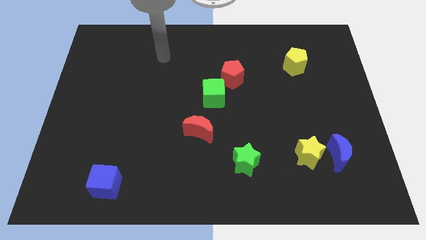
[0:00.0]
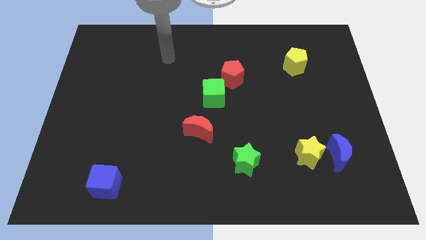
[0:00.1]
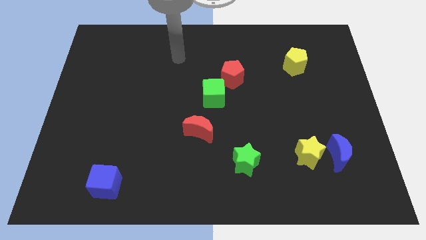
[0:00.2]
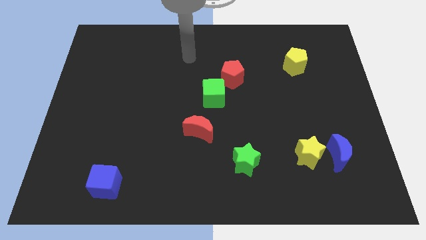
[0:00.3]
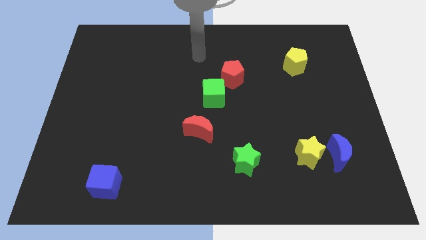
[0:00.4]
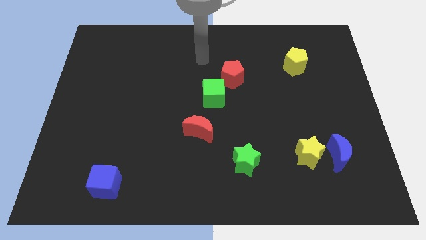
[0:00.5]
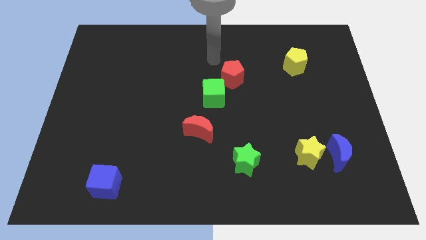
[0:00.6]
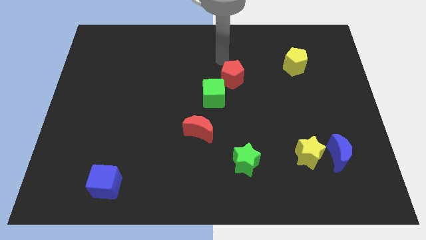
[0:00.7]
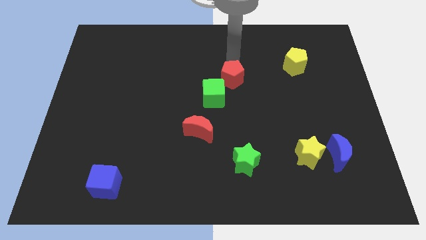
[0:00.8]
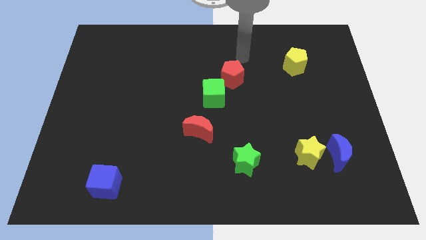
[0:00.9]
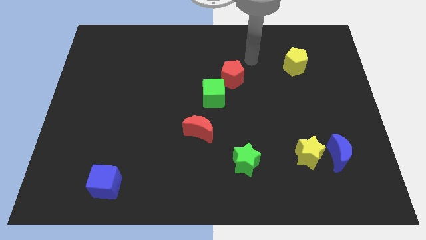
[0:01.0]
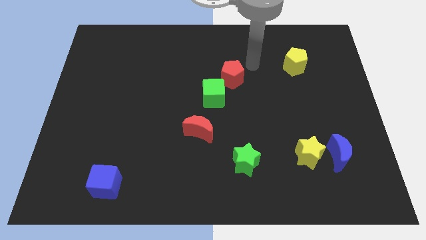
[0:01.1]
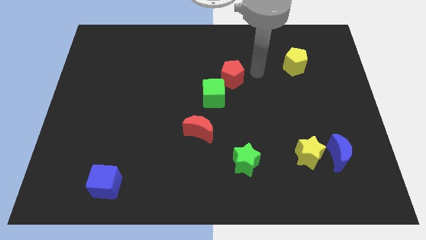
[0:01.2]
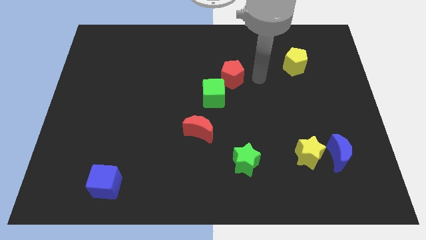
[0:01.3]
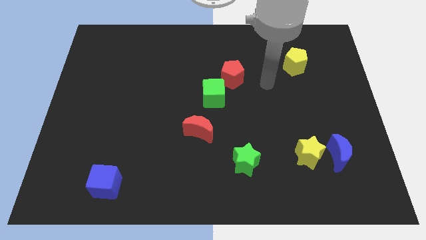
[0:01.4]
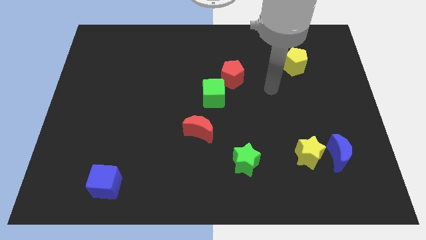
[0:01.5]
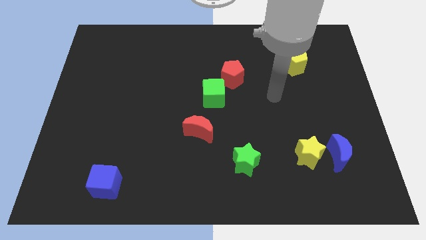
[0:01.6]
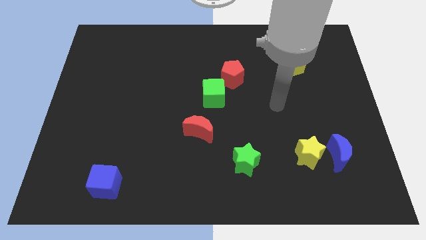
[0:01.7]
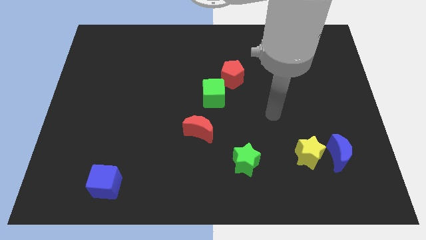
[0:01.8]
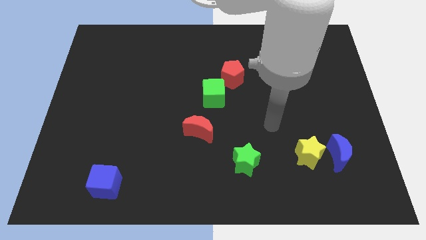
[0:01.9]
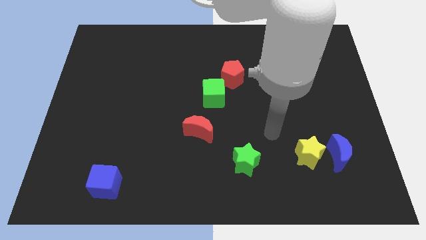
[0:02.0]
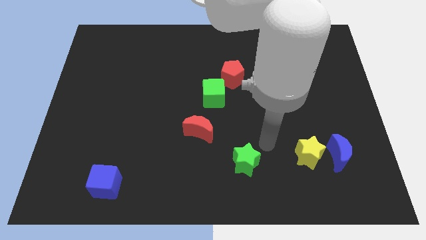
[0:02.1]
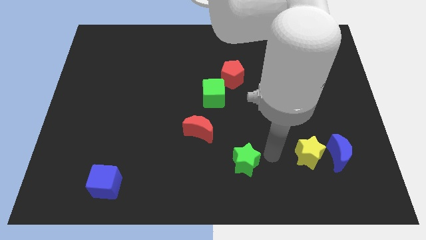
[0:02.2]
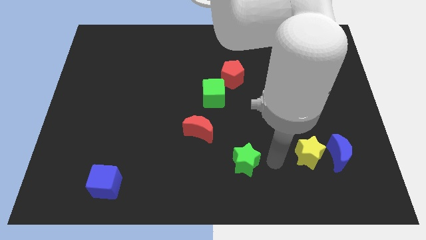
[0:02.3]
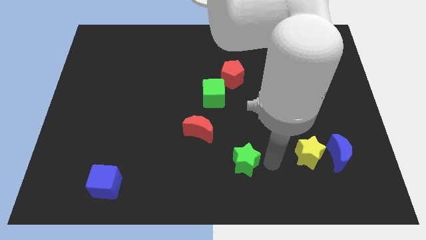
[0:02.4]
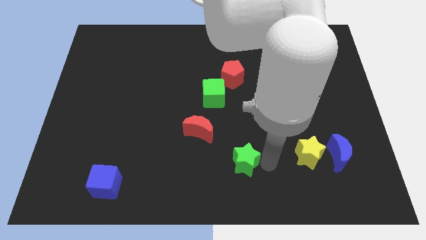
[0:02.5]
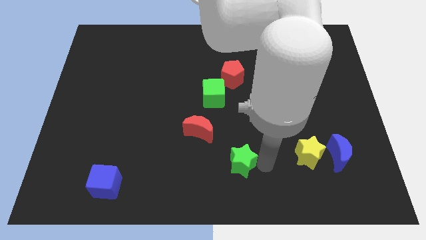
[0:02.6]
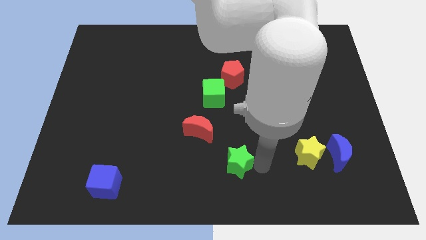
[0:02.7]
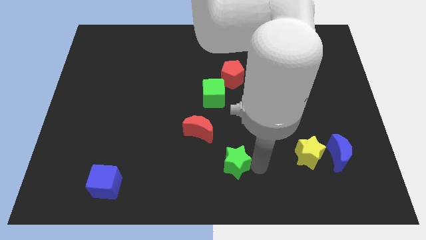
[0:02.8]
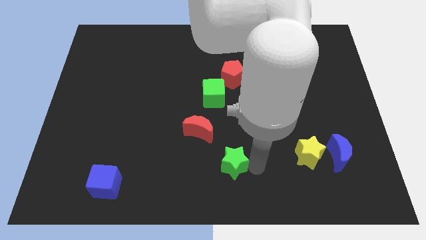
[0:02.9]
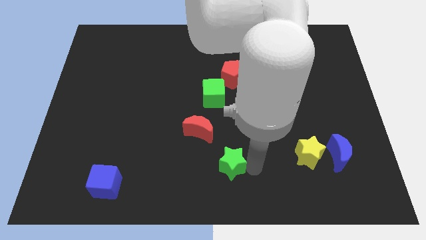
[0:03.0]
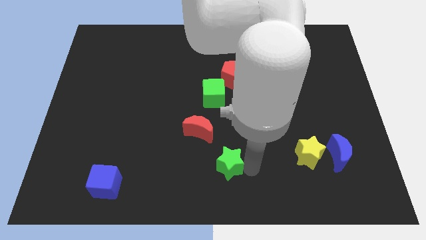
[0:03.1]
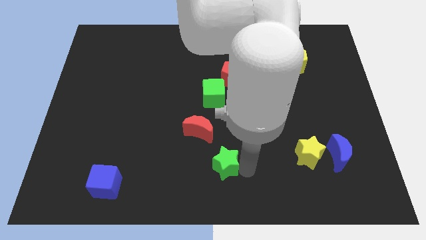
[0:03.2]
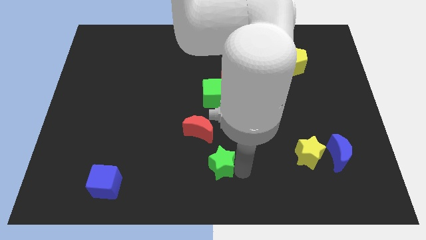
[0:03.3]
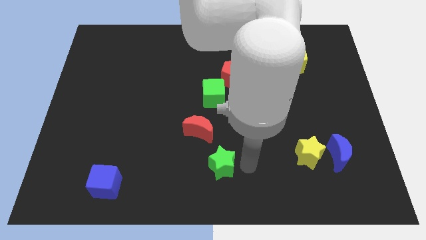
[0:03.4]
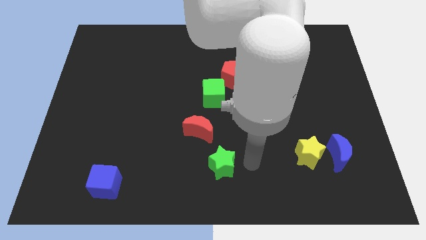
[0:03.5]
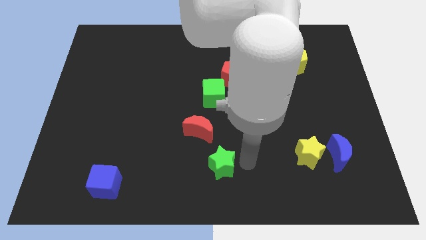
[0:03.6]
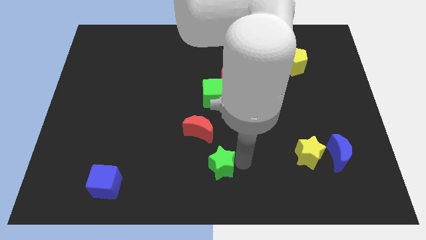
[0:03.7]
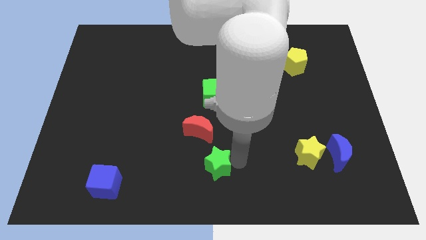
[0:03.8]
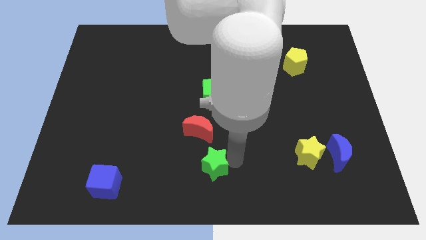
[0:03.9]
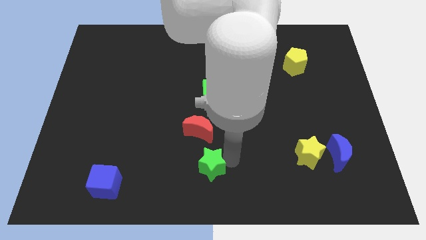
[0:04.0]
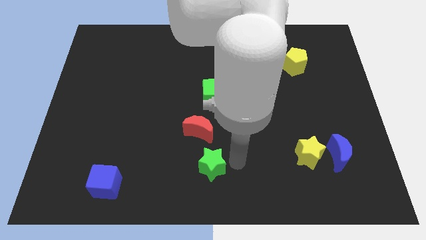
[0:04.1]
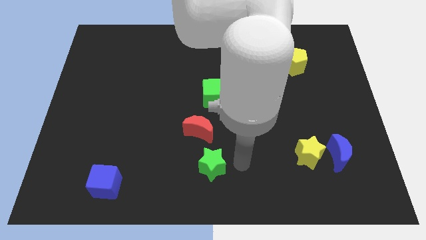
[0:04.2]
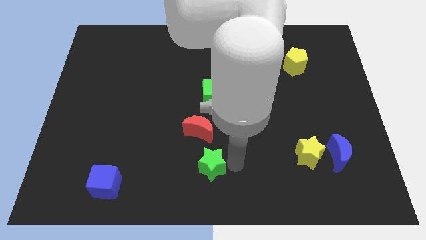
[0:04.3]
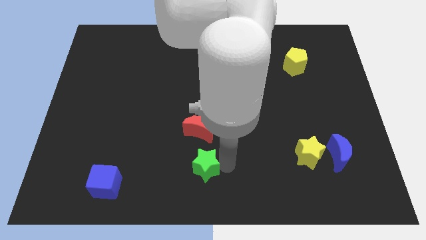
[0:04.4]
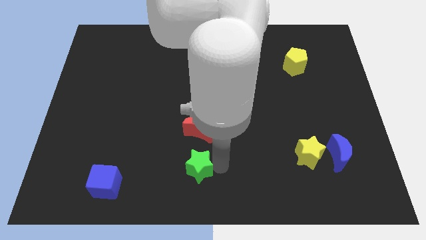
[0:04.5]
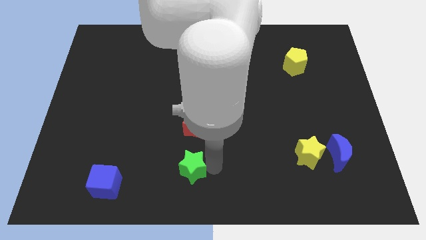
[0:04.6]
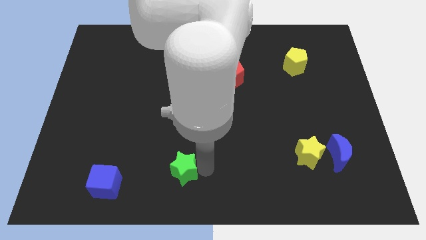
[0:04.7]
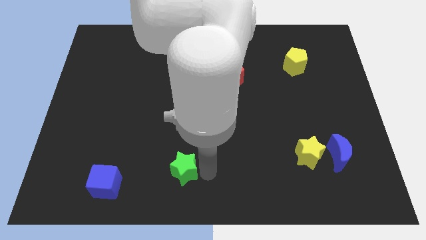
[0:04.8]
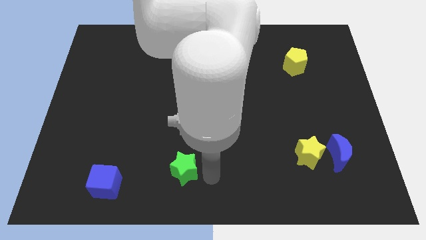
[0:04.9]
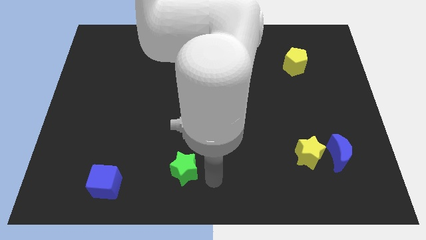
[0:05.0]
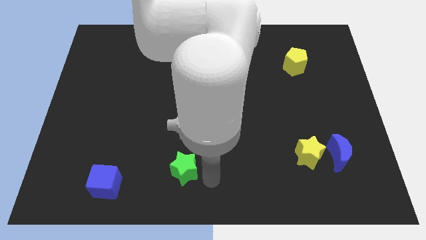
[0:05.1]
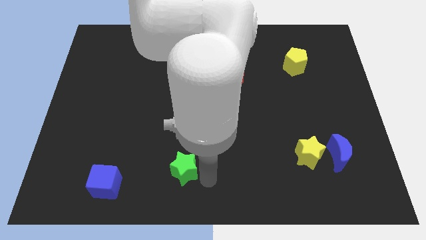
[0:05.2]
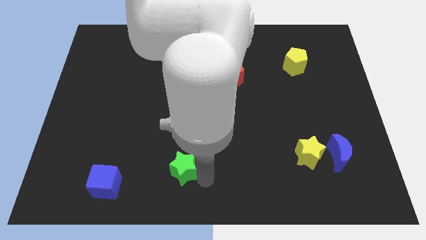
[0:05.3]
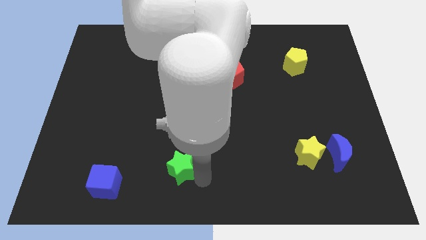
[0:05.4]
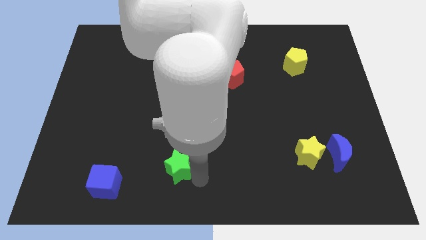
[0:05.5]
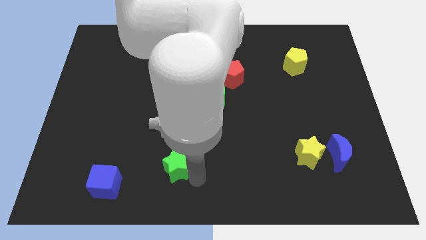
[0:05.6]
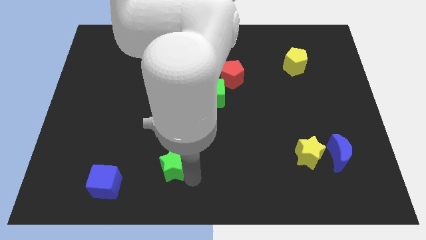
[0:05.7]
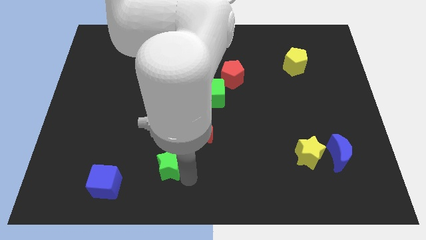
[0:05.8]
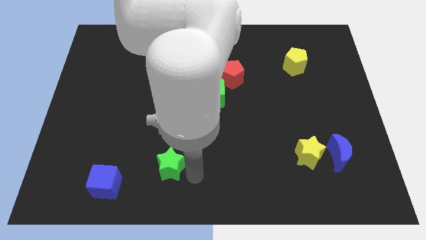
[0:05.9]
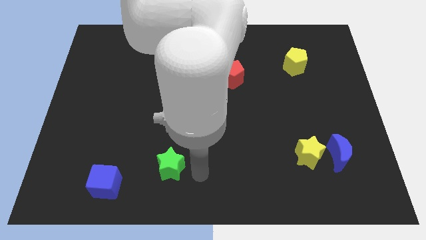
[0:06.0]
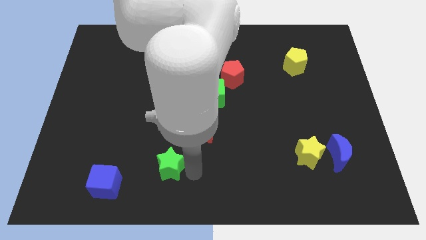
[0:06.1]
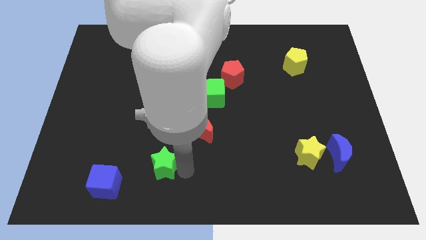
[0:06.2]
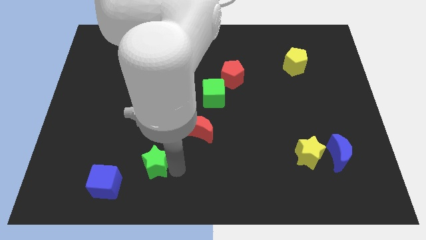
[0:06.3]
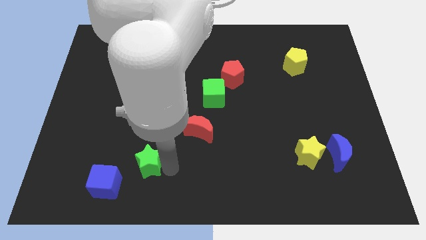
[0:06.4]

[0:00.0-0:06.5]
push the green star left

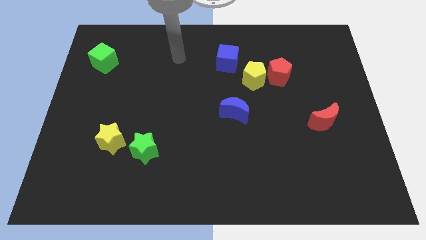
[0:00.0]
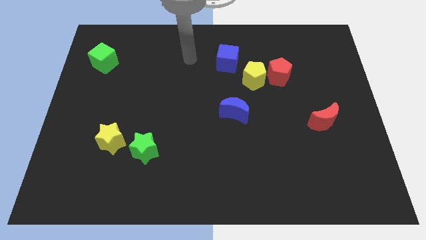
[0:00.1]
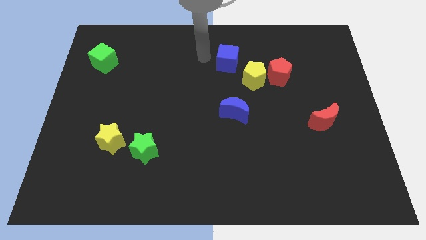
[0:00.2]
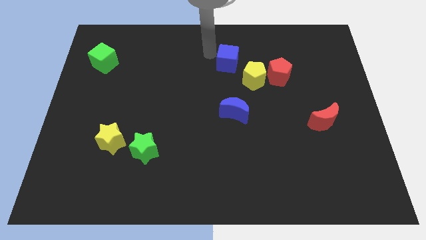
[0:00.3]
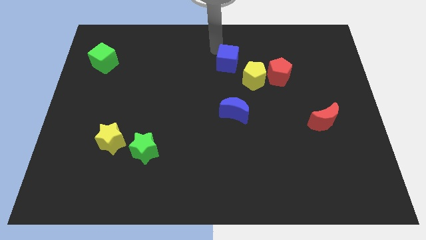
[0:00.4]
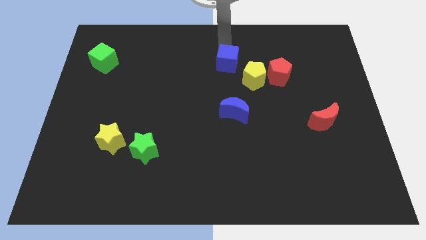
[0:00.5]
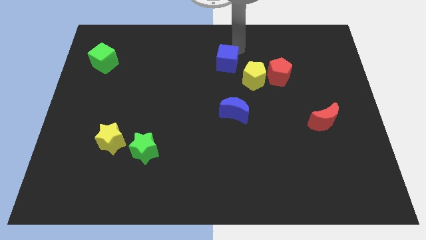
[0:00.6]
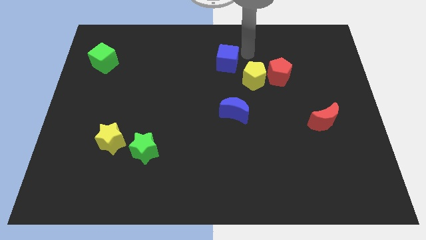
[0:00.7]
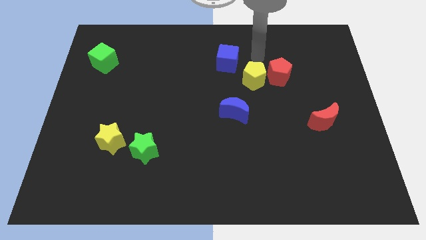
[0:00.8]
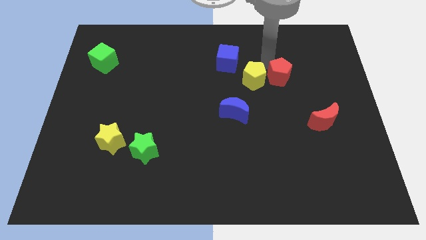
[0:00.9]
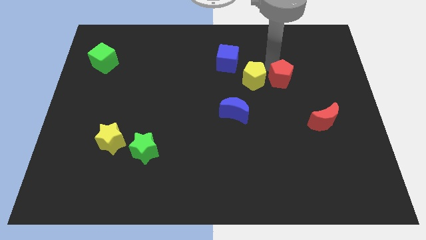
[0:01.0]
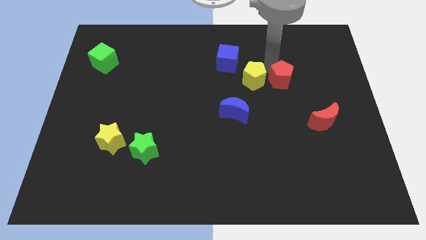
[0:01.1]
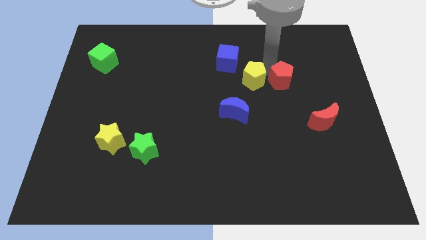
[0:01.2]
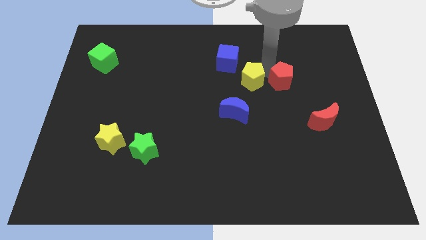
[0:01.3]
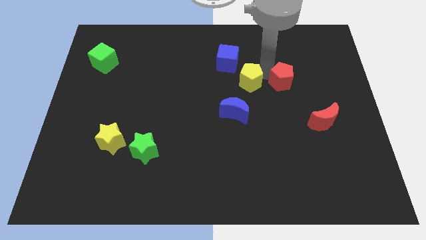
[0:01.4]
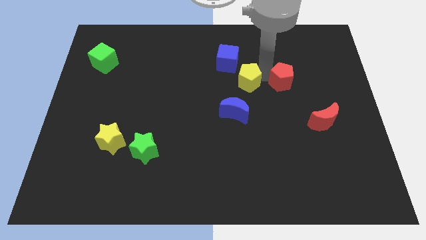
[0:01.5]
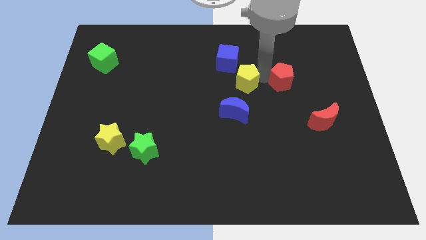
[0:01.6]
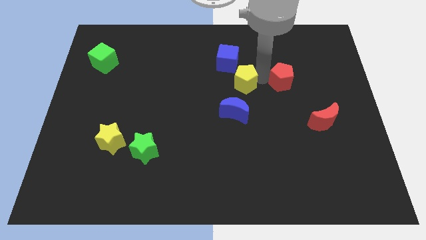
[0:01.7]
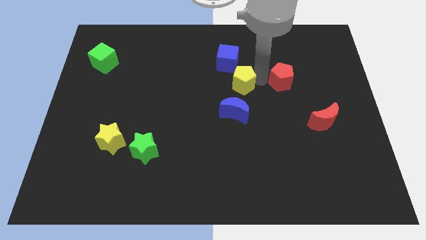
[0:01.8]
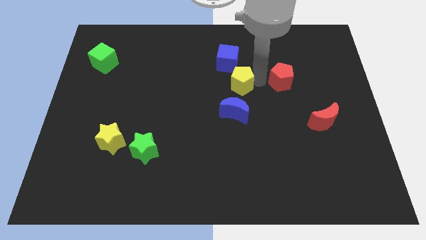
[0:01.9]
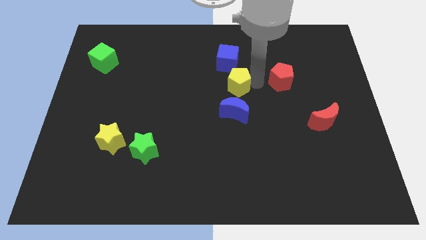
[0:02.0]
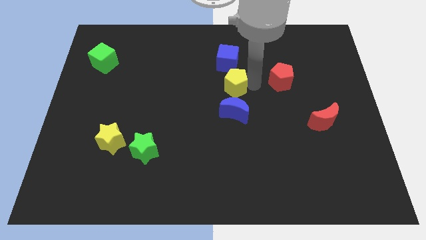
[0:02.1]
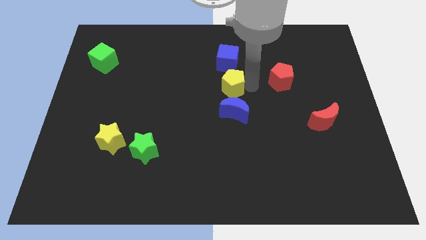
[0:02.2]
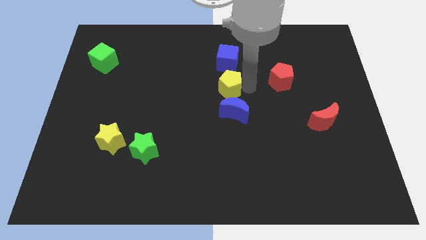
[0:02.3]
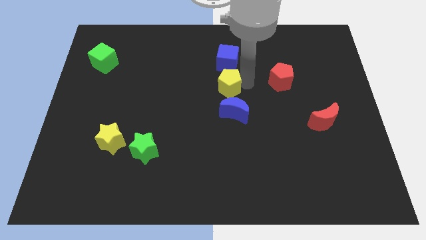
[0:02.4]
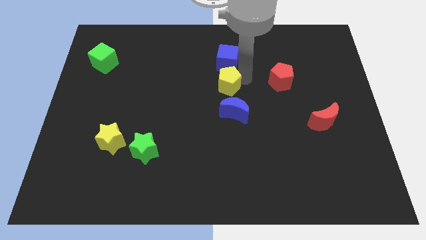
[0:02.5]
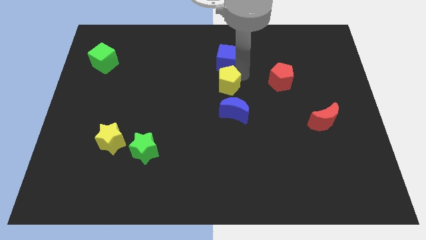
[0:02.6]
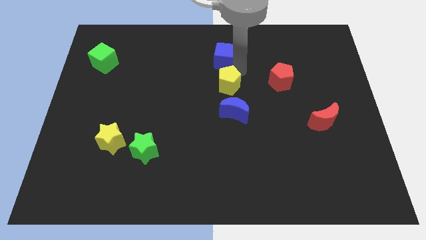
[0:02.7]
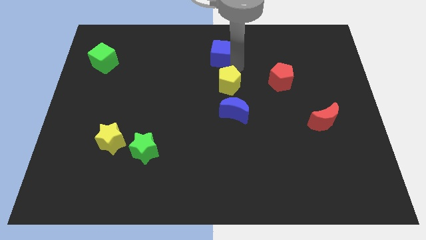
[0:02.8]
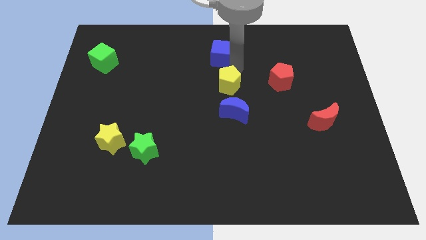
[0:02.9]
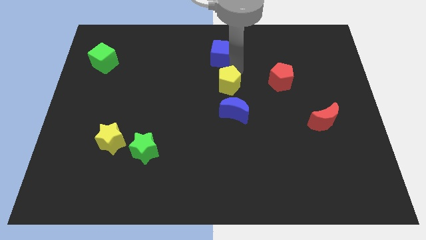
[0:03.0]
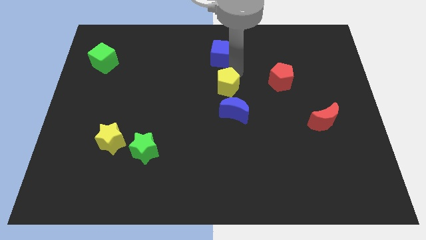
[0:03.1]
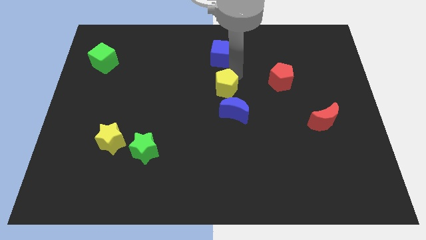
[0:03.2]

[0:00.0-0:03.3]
slightly push the yellow pentagon down and then left
